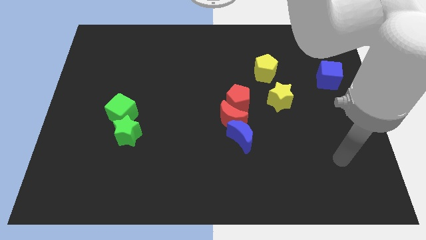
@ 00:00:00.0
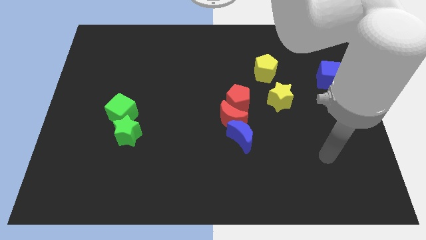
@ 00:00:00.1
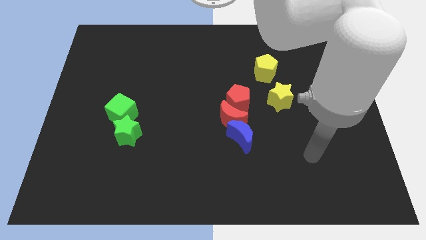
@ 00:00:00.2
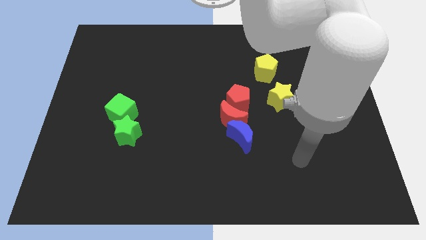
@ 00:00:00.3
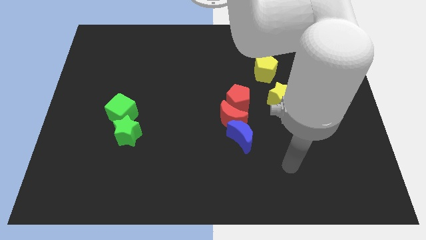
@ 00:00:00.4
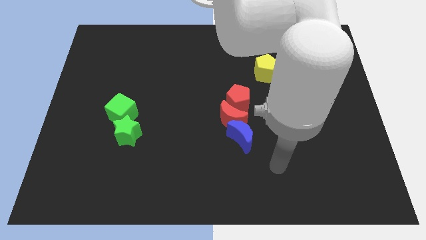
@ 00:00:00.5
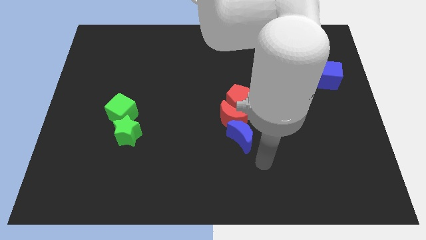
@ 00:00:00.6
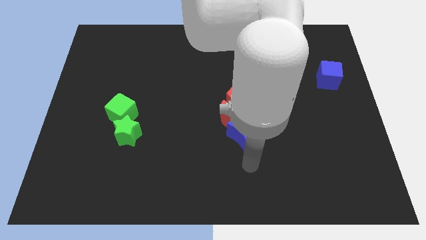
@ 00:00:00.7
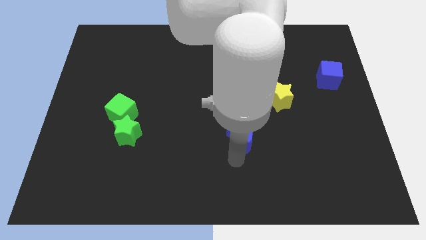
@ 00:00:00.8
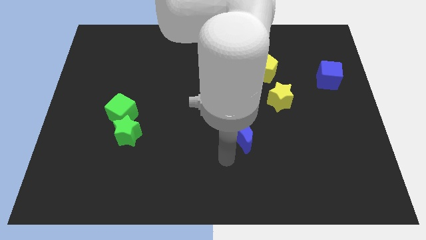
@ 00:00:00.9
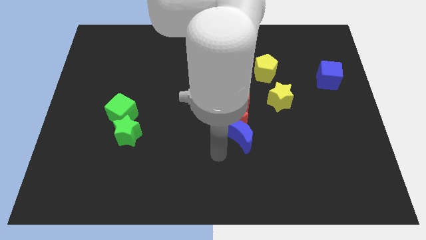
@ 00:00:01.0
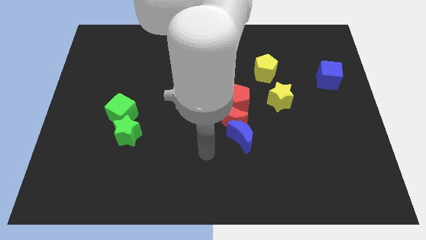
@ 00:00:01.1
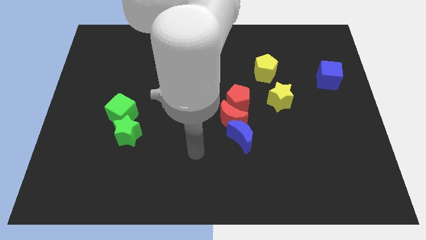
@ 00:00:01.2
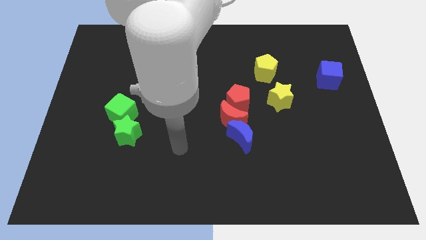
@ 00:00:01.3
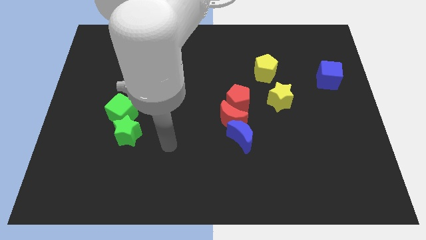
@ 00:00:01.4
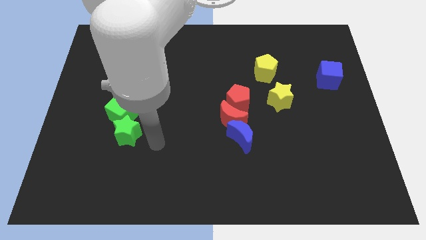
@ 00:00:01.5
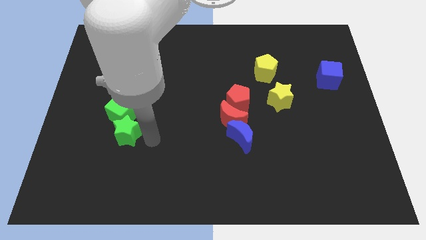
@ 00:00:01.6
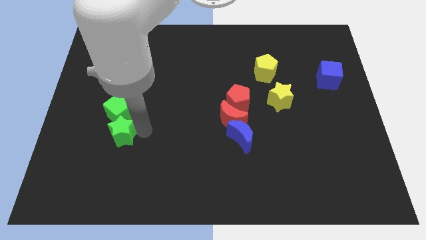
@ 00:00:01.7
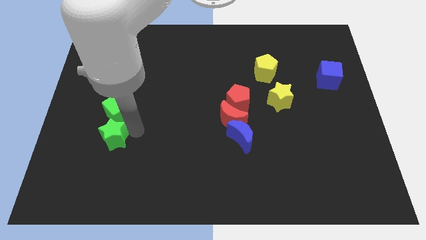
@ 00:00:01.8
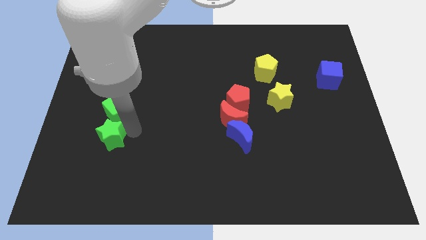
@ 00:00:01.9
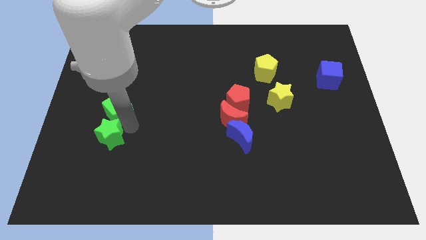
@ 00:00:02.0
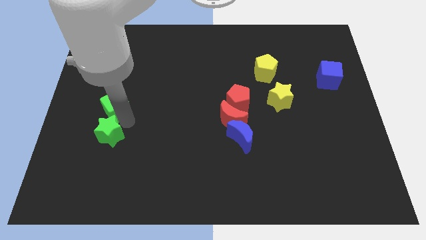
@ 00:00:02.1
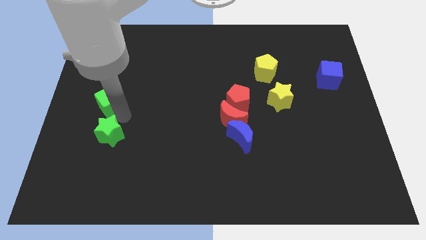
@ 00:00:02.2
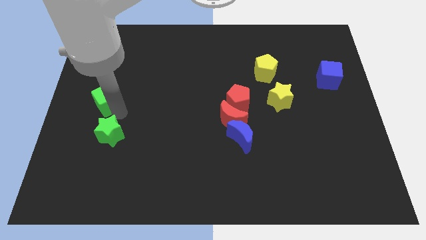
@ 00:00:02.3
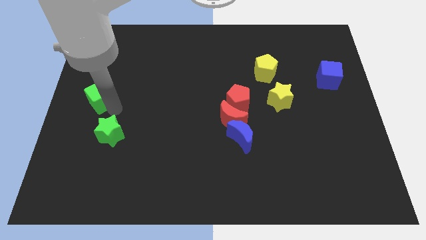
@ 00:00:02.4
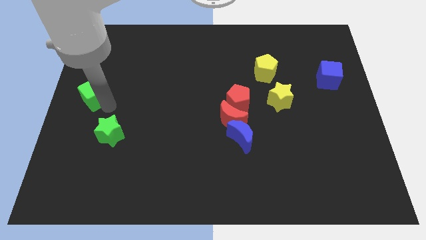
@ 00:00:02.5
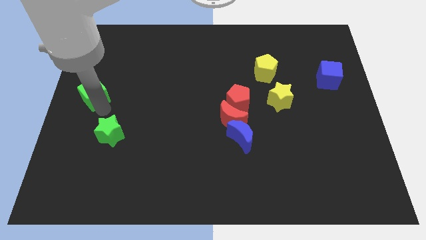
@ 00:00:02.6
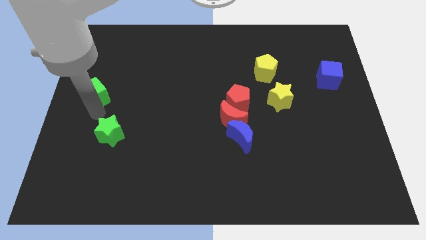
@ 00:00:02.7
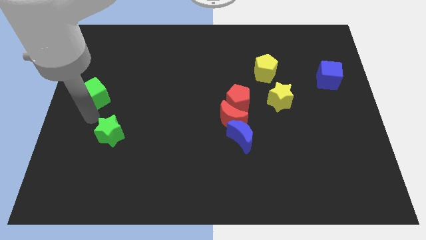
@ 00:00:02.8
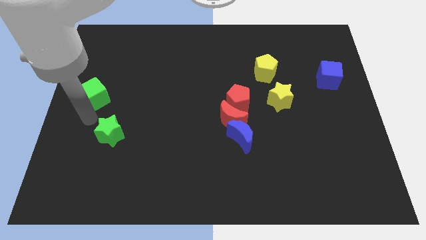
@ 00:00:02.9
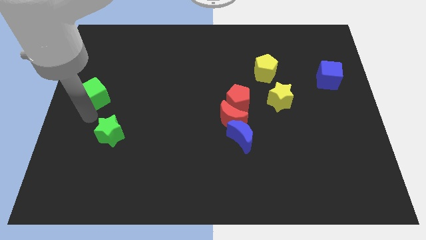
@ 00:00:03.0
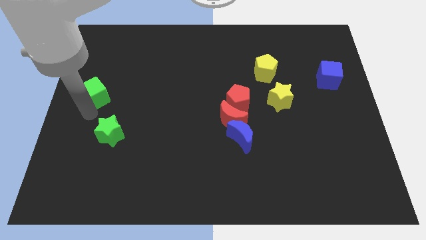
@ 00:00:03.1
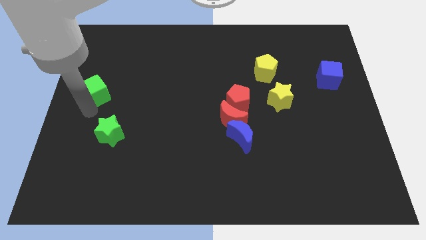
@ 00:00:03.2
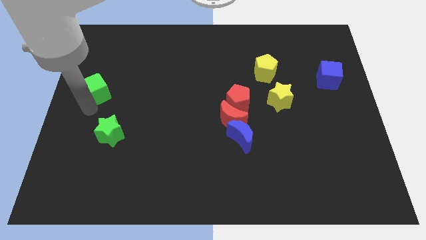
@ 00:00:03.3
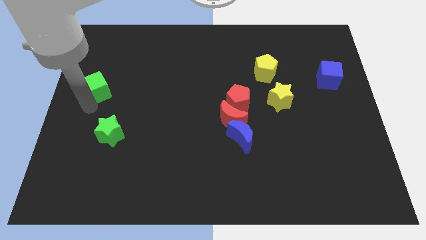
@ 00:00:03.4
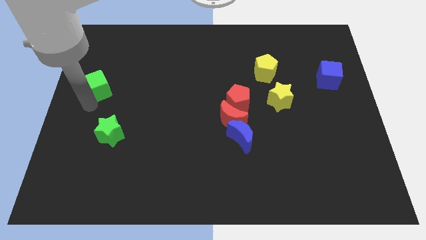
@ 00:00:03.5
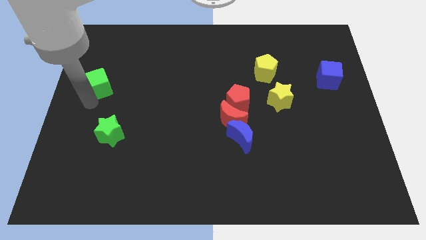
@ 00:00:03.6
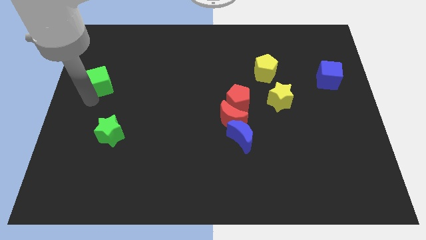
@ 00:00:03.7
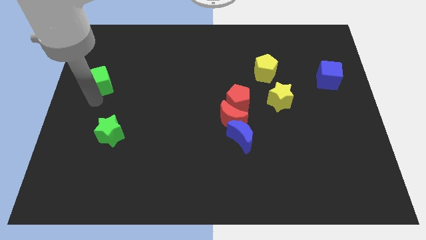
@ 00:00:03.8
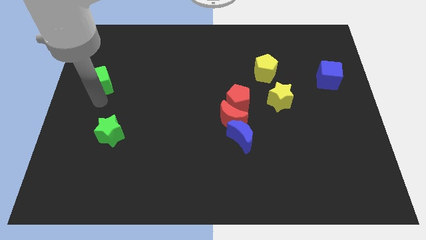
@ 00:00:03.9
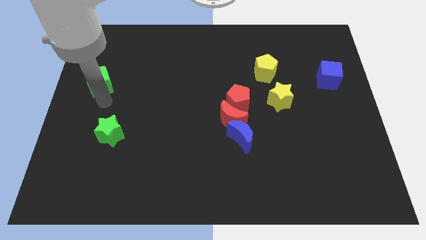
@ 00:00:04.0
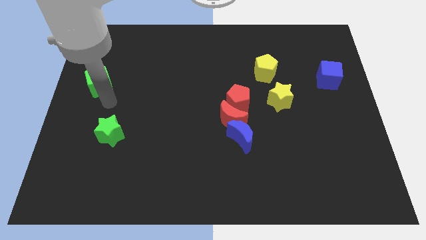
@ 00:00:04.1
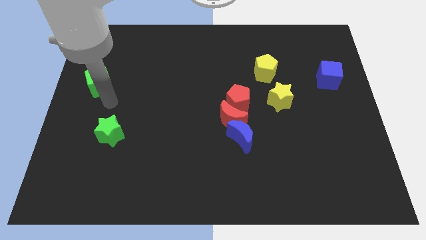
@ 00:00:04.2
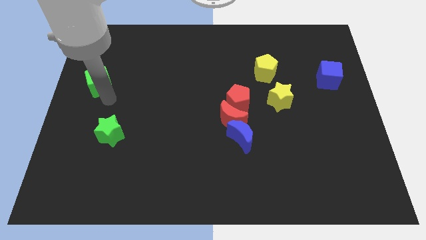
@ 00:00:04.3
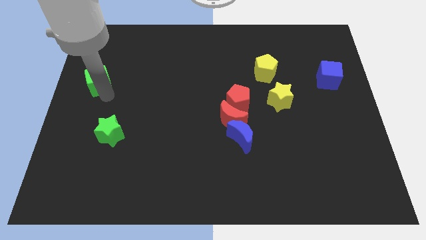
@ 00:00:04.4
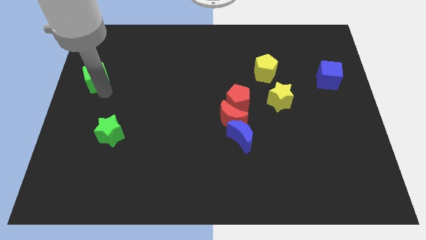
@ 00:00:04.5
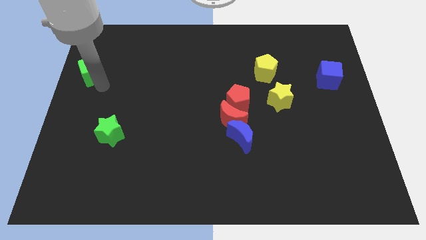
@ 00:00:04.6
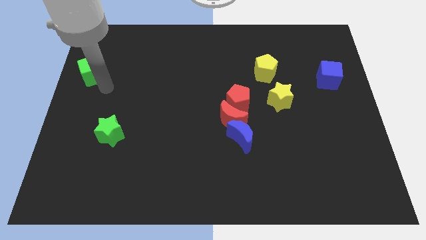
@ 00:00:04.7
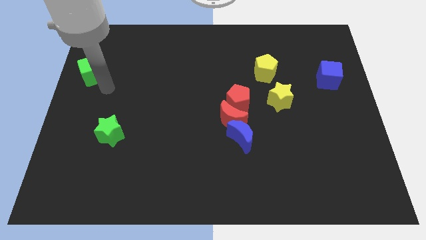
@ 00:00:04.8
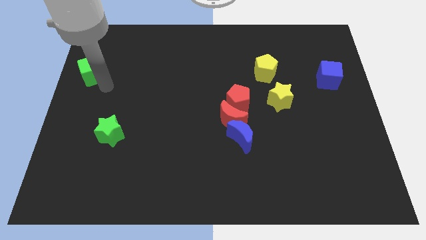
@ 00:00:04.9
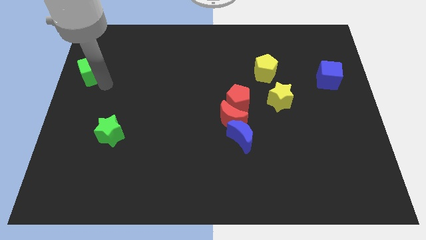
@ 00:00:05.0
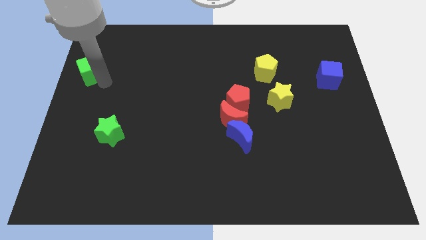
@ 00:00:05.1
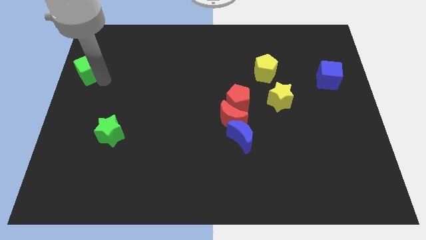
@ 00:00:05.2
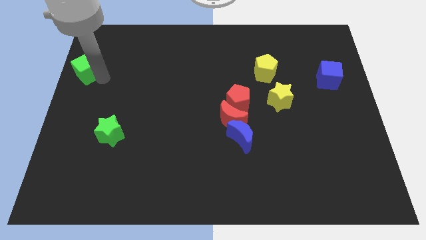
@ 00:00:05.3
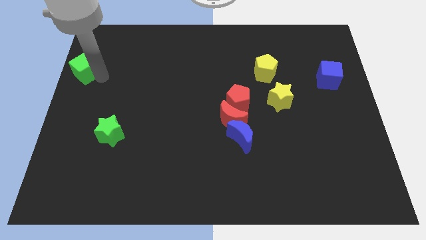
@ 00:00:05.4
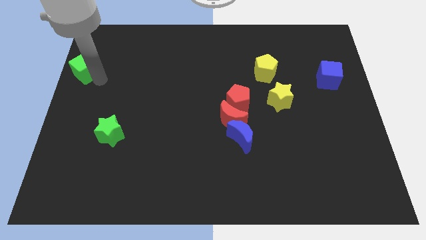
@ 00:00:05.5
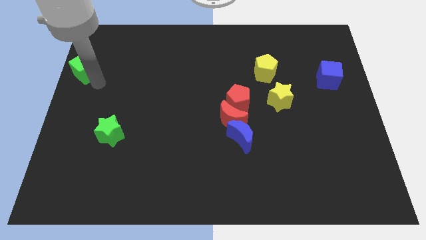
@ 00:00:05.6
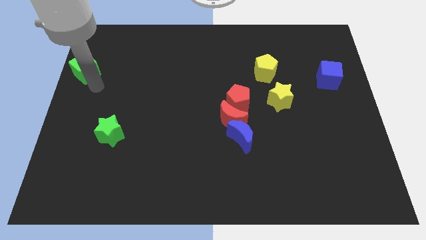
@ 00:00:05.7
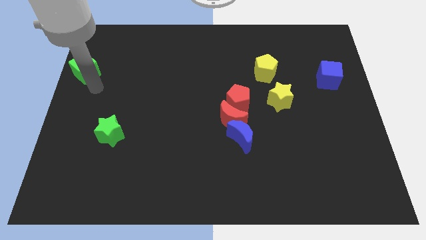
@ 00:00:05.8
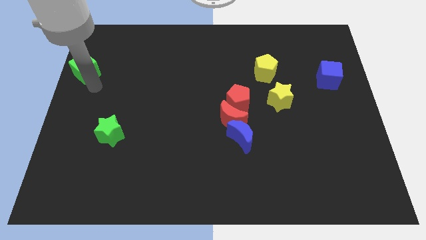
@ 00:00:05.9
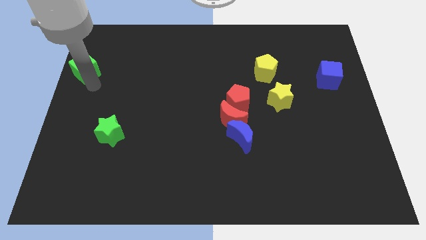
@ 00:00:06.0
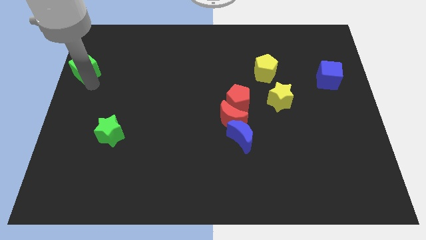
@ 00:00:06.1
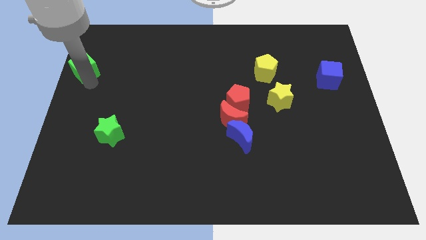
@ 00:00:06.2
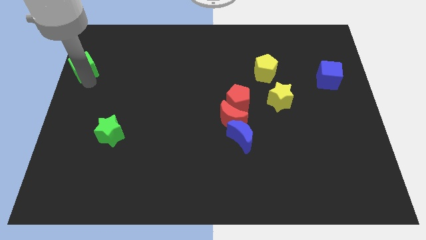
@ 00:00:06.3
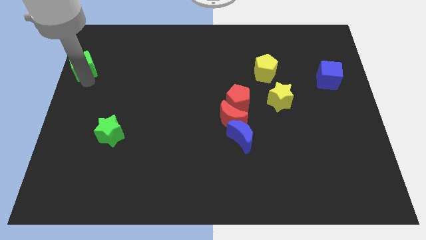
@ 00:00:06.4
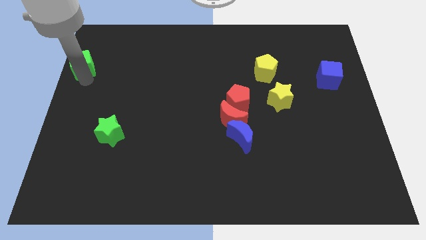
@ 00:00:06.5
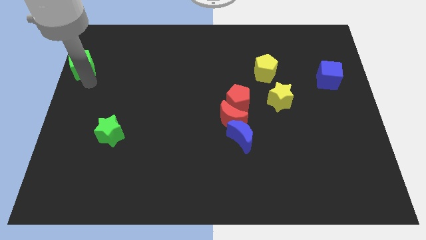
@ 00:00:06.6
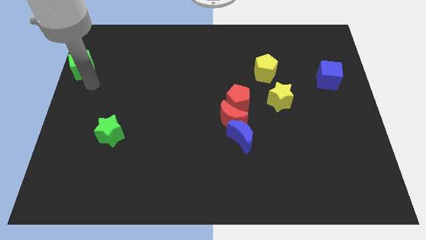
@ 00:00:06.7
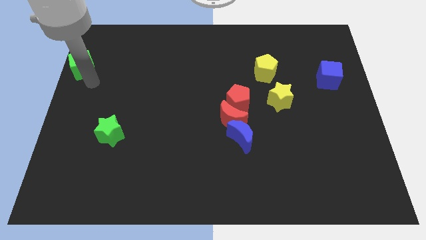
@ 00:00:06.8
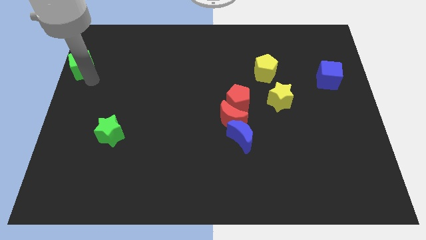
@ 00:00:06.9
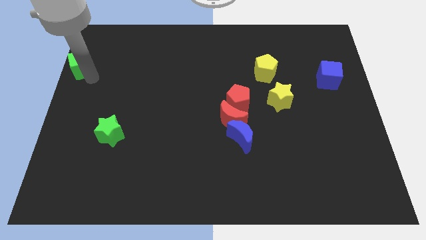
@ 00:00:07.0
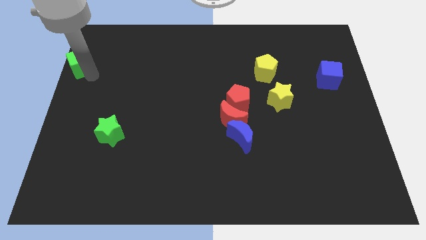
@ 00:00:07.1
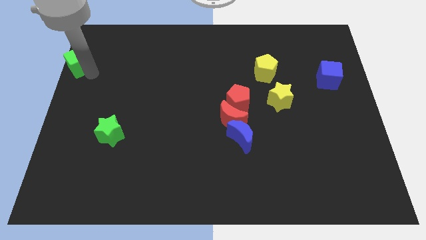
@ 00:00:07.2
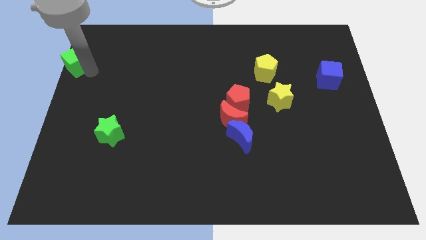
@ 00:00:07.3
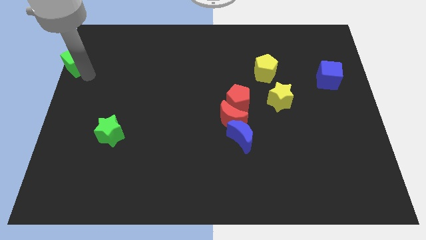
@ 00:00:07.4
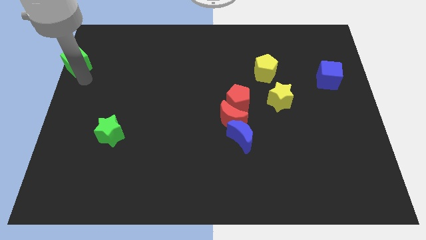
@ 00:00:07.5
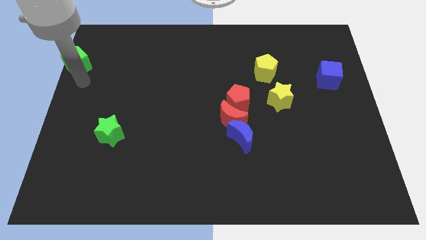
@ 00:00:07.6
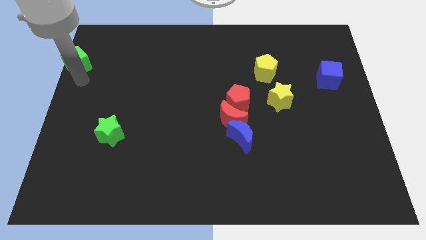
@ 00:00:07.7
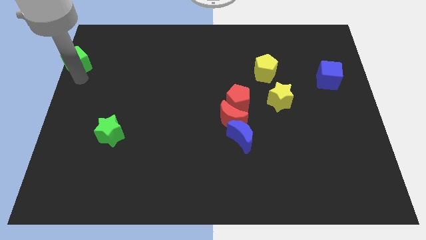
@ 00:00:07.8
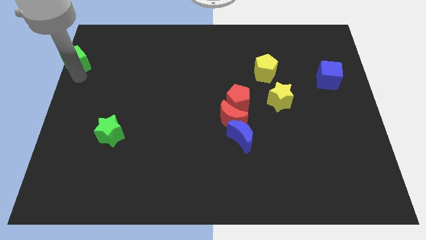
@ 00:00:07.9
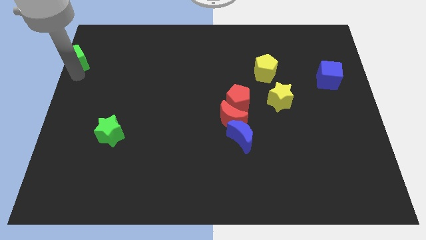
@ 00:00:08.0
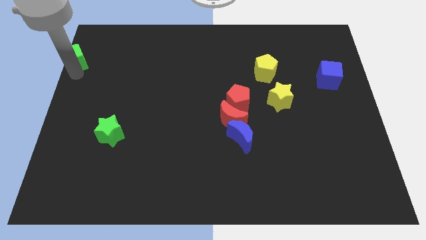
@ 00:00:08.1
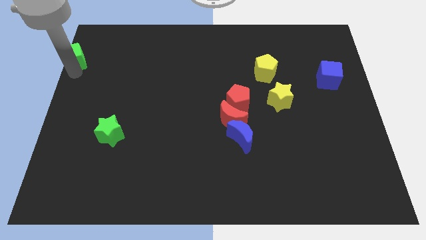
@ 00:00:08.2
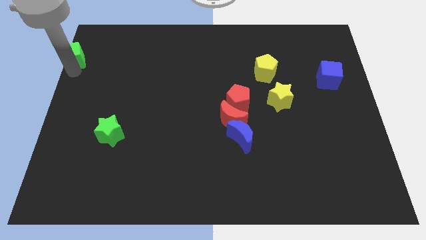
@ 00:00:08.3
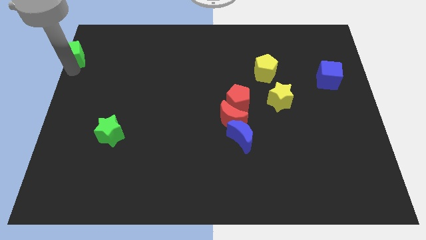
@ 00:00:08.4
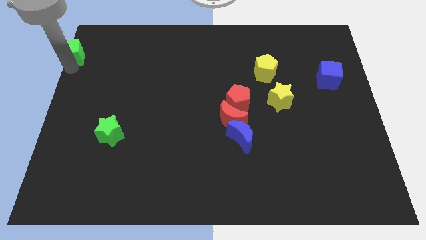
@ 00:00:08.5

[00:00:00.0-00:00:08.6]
push the green cube to the upper left corner
